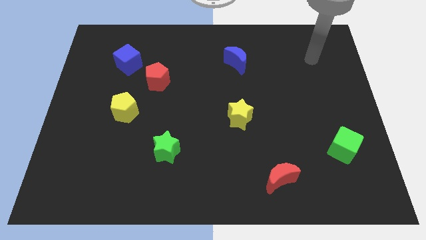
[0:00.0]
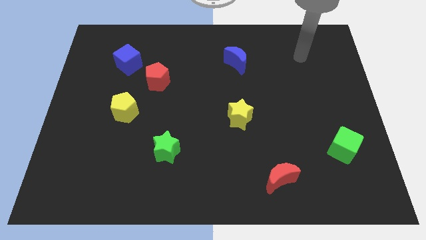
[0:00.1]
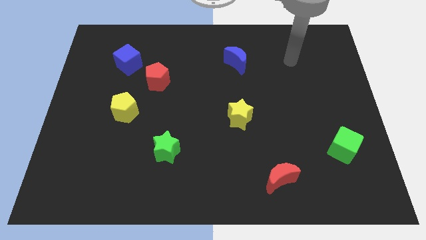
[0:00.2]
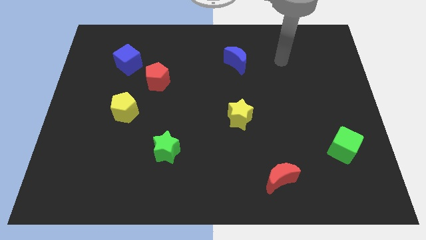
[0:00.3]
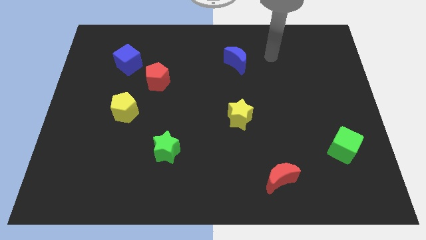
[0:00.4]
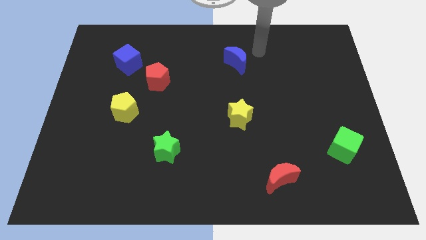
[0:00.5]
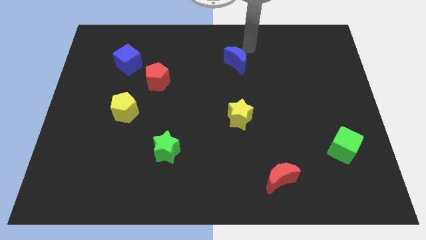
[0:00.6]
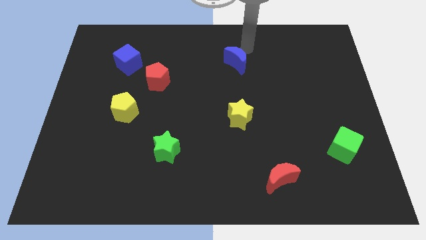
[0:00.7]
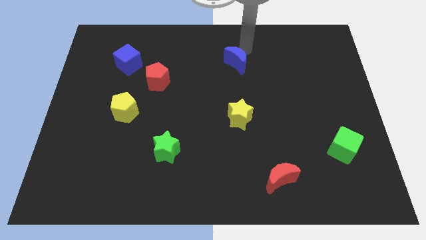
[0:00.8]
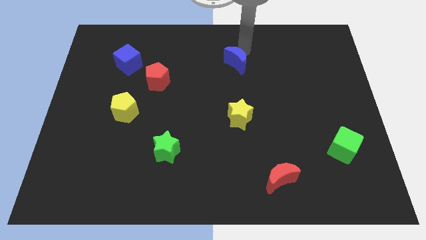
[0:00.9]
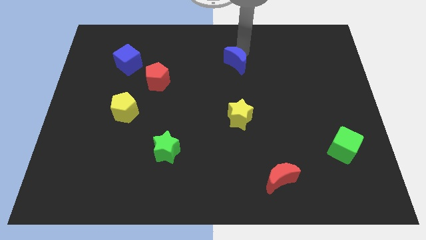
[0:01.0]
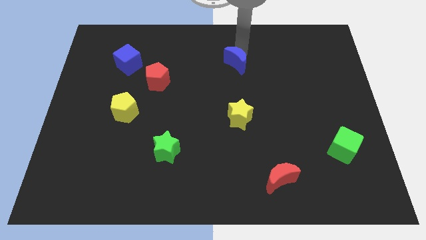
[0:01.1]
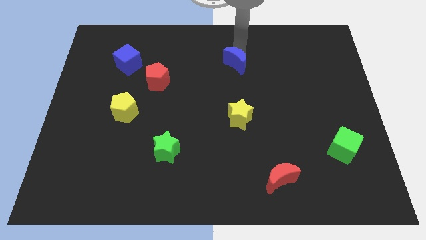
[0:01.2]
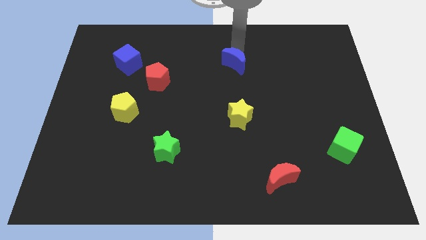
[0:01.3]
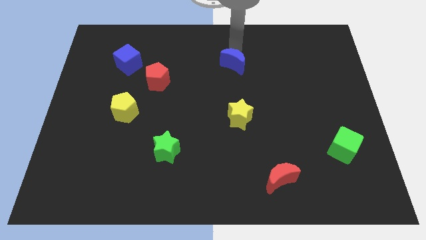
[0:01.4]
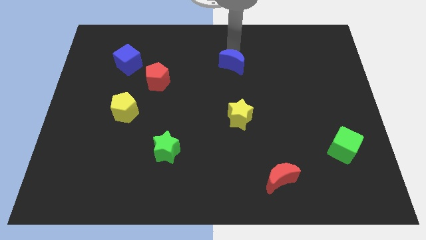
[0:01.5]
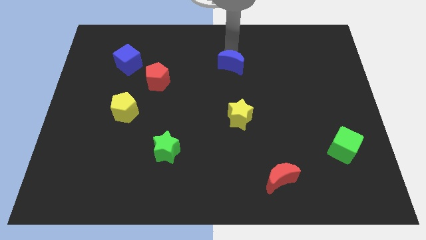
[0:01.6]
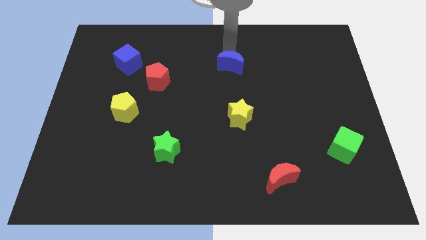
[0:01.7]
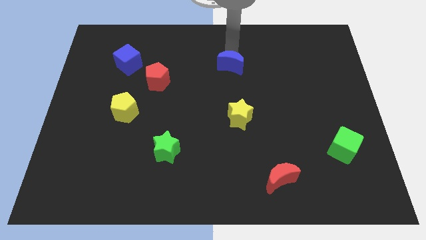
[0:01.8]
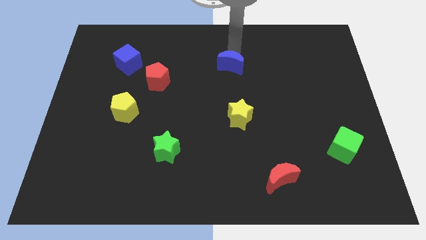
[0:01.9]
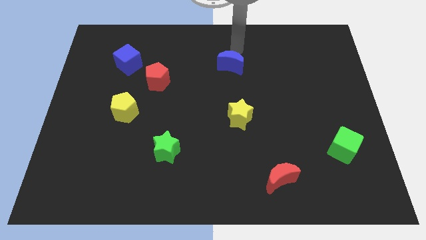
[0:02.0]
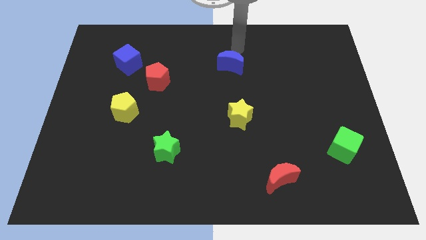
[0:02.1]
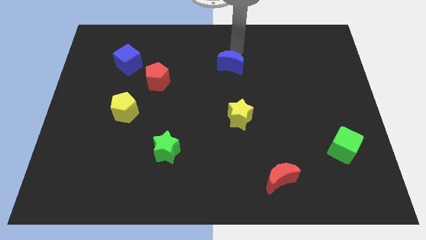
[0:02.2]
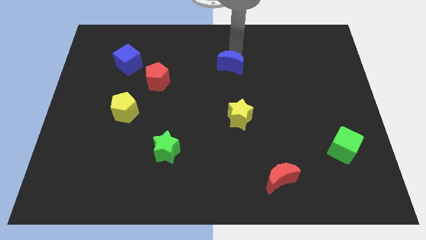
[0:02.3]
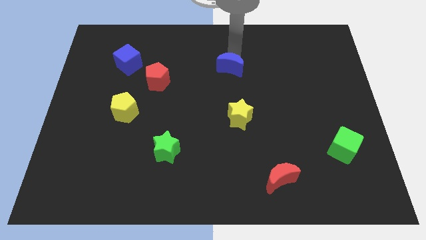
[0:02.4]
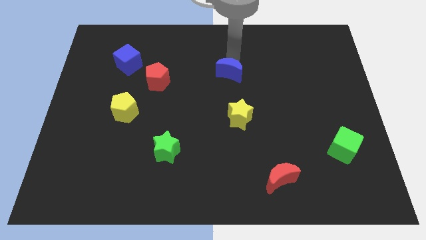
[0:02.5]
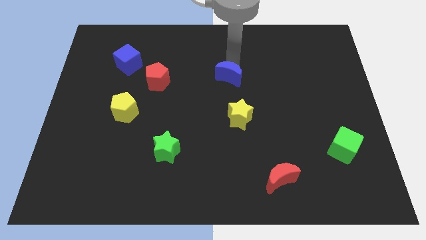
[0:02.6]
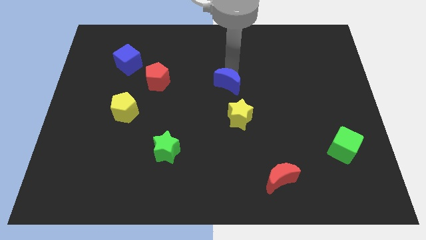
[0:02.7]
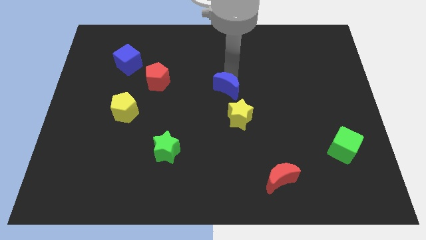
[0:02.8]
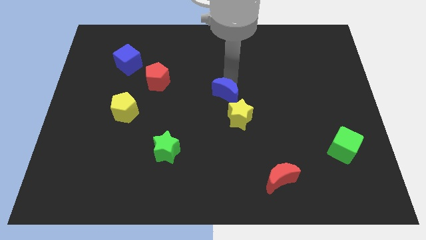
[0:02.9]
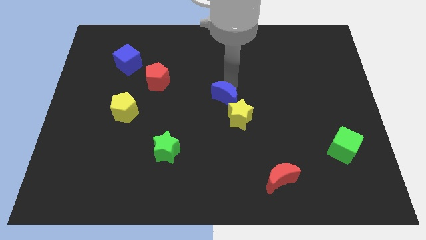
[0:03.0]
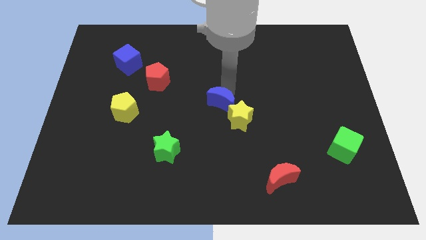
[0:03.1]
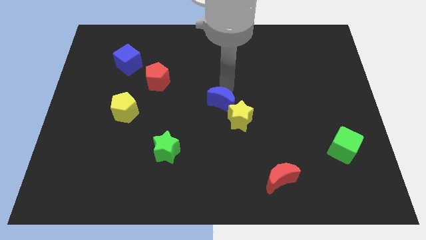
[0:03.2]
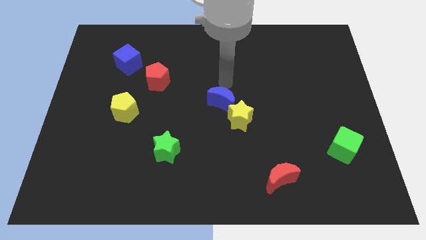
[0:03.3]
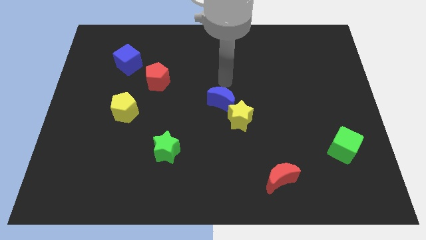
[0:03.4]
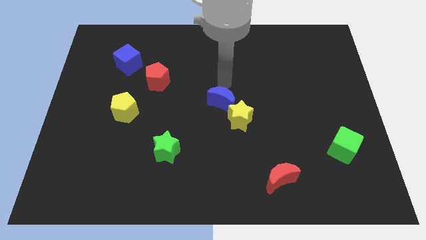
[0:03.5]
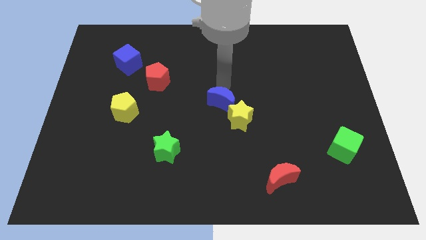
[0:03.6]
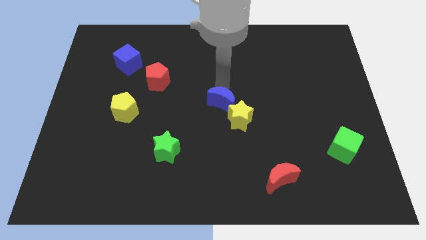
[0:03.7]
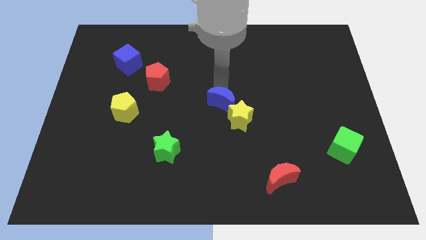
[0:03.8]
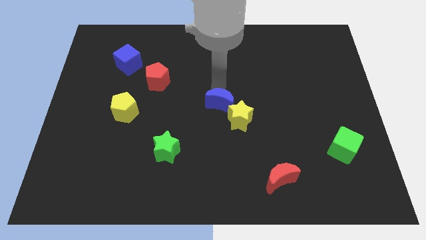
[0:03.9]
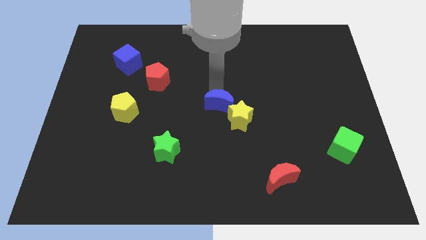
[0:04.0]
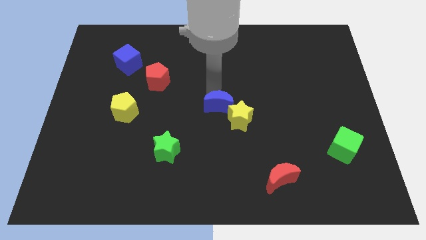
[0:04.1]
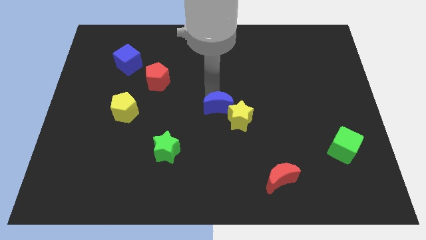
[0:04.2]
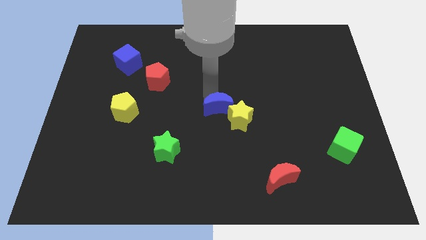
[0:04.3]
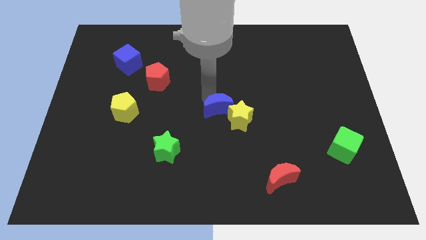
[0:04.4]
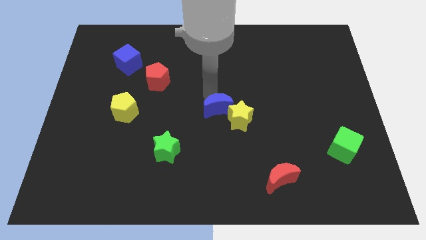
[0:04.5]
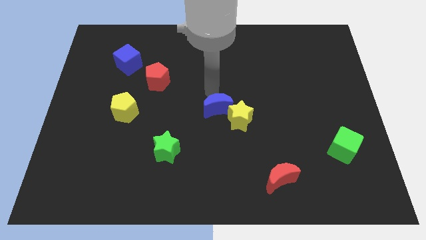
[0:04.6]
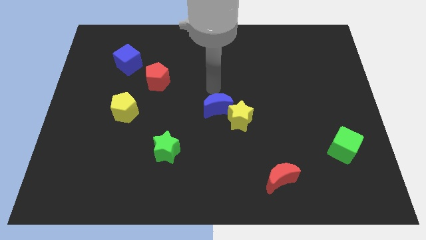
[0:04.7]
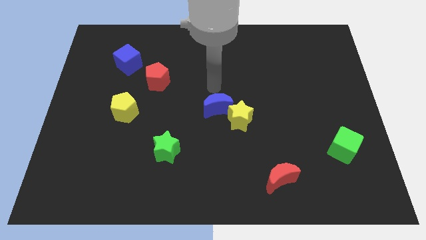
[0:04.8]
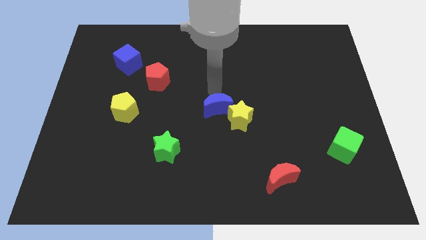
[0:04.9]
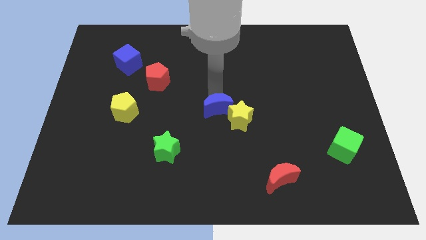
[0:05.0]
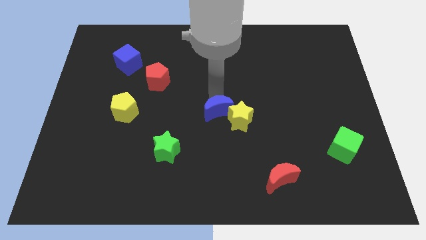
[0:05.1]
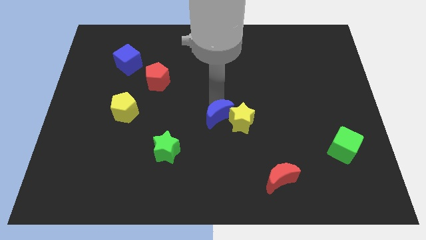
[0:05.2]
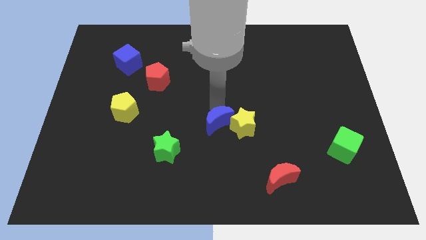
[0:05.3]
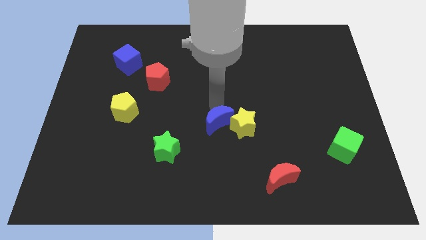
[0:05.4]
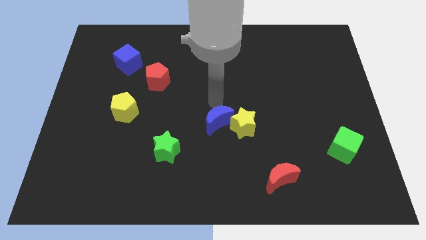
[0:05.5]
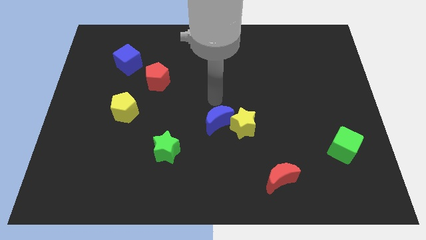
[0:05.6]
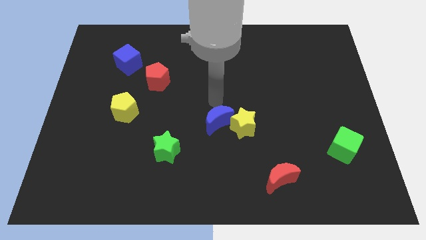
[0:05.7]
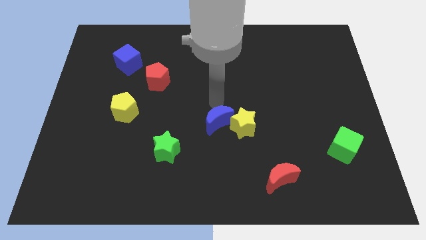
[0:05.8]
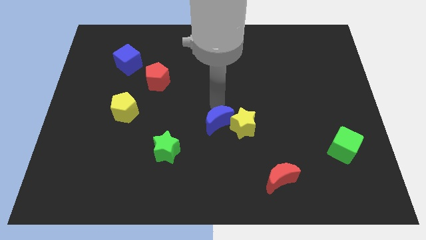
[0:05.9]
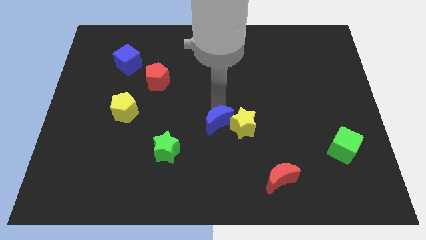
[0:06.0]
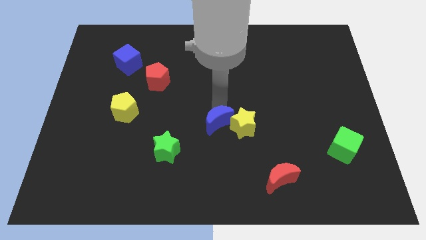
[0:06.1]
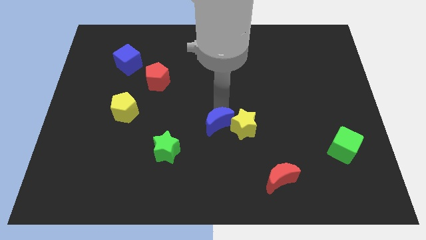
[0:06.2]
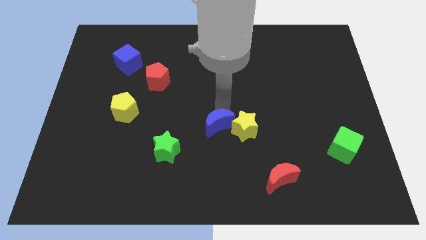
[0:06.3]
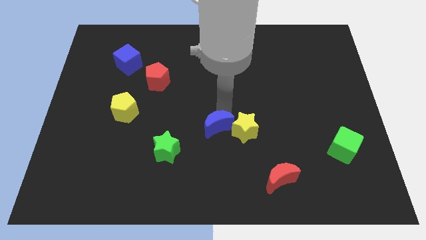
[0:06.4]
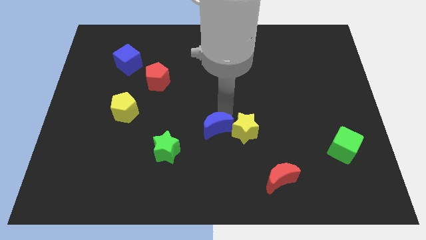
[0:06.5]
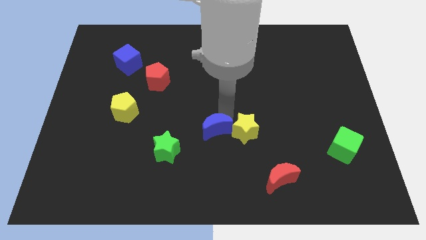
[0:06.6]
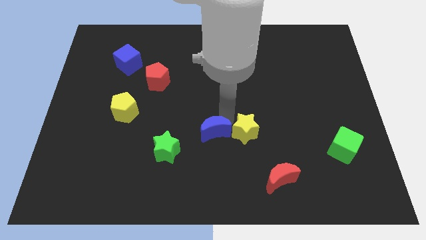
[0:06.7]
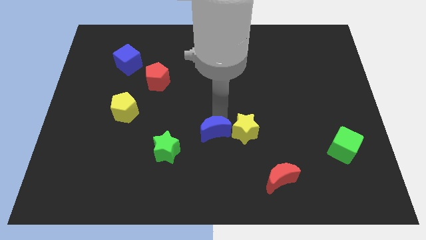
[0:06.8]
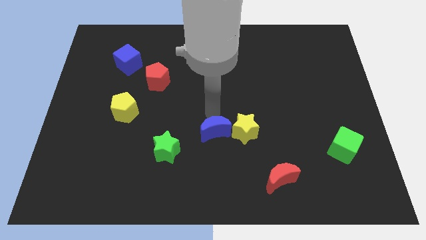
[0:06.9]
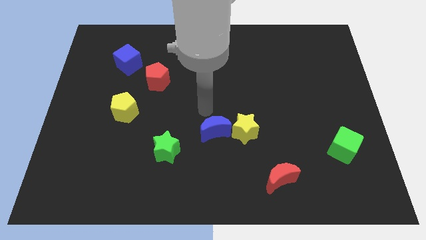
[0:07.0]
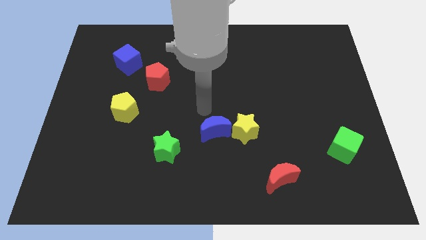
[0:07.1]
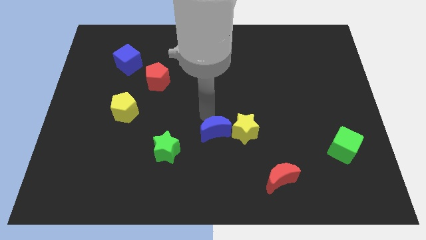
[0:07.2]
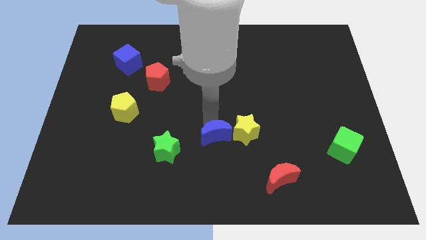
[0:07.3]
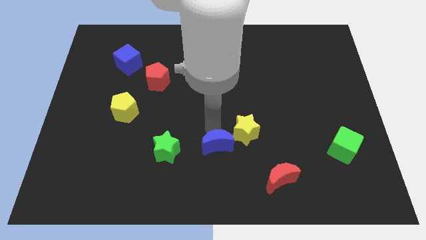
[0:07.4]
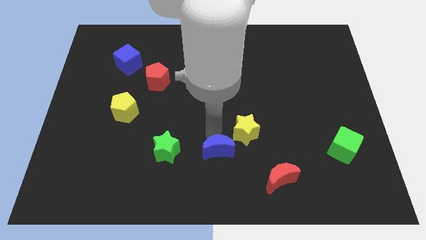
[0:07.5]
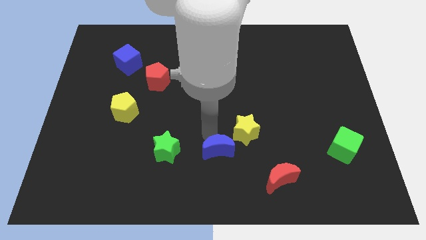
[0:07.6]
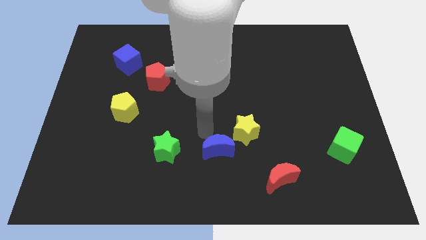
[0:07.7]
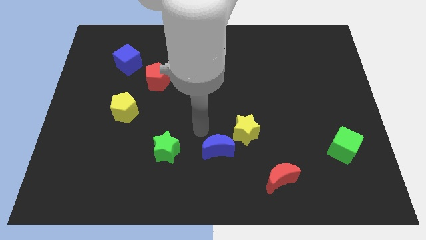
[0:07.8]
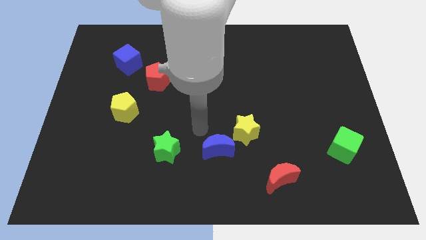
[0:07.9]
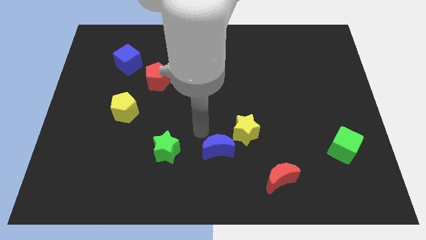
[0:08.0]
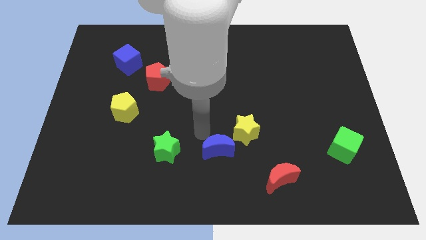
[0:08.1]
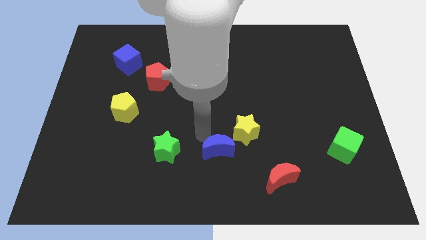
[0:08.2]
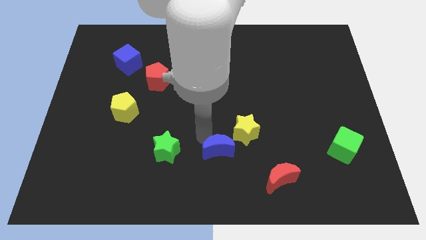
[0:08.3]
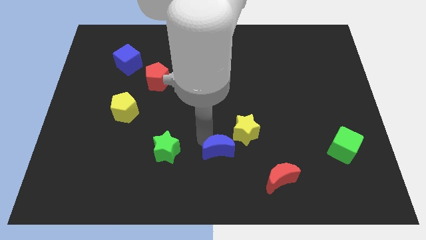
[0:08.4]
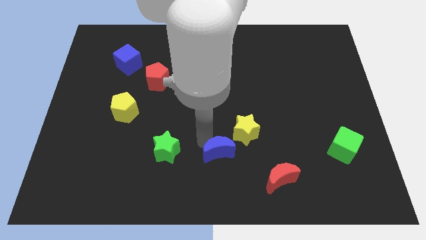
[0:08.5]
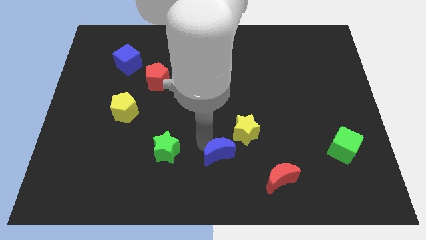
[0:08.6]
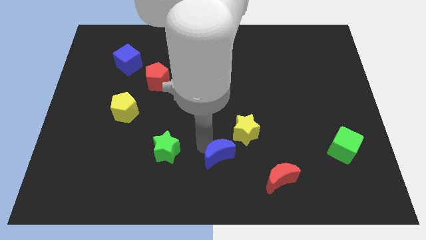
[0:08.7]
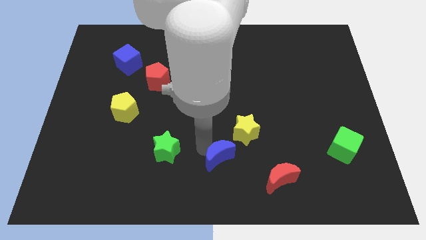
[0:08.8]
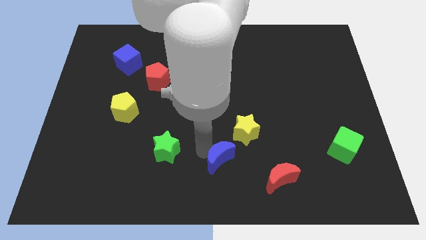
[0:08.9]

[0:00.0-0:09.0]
put the blue moon just left of the red moon
